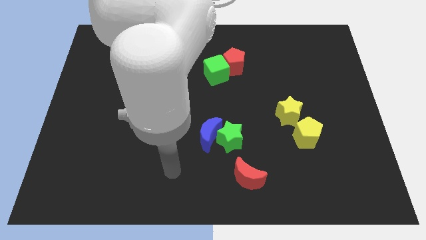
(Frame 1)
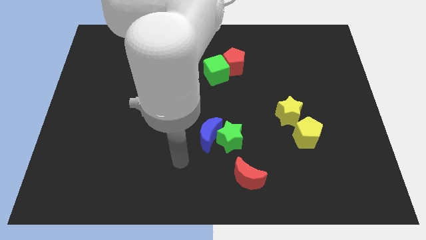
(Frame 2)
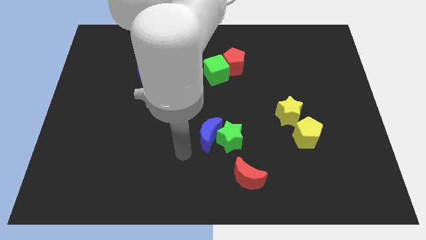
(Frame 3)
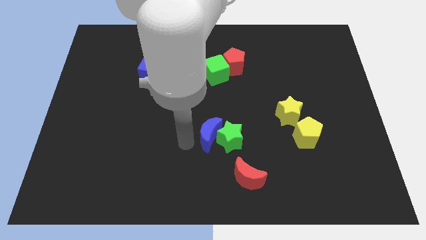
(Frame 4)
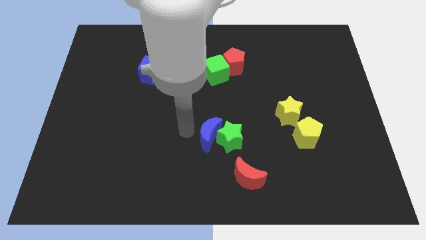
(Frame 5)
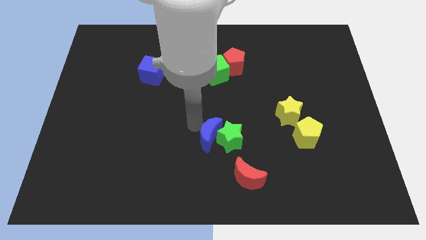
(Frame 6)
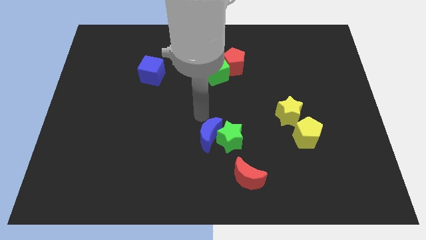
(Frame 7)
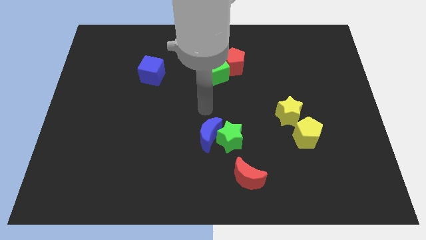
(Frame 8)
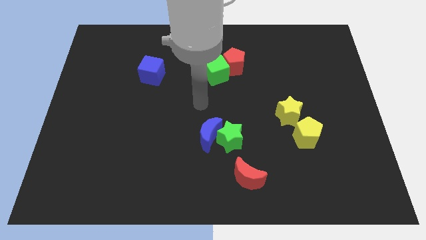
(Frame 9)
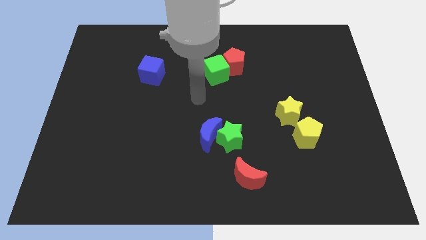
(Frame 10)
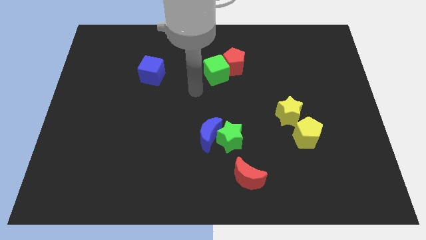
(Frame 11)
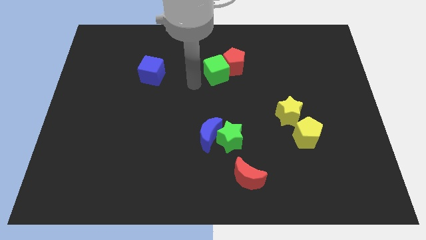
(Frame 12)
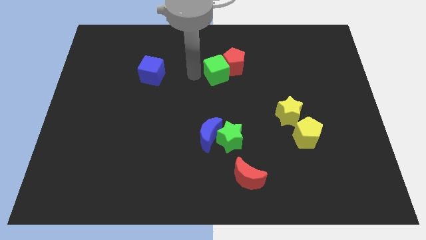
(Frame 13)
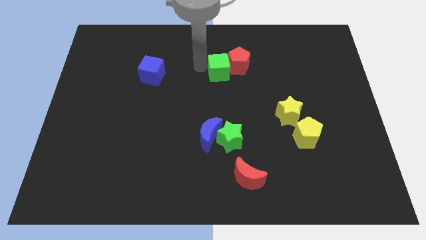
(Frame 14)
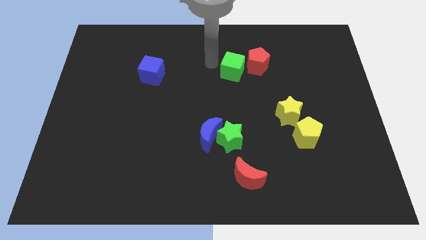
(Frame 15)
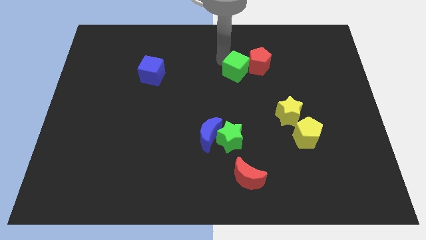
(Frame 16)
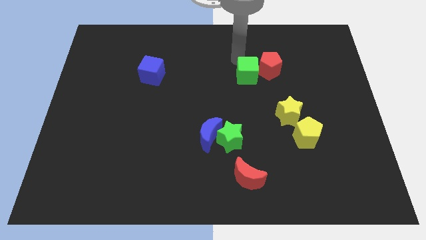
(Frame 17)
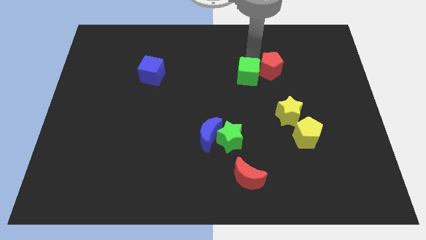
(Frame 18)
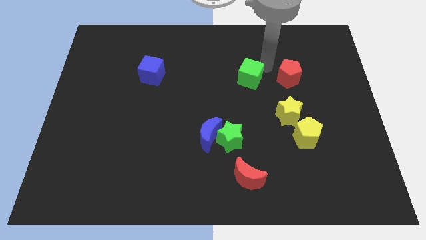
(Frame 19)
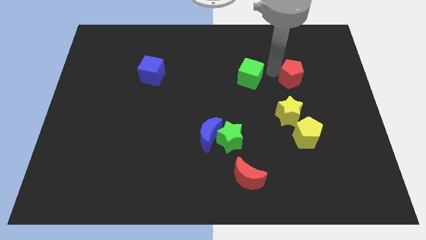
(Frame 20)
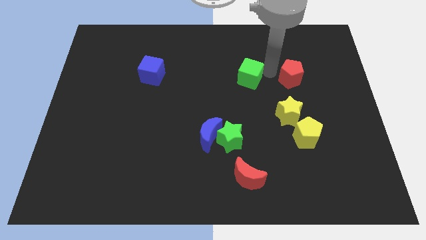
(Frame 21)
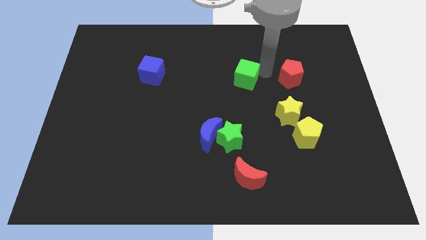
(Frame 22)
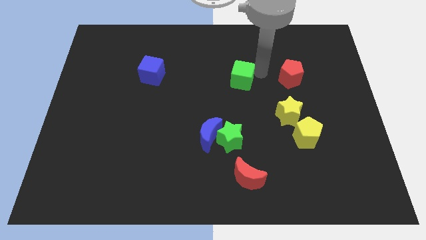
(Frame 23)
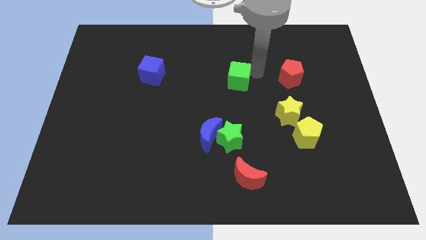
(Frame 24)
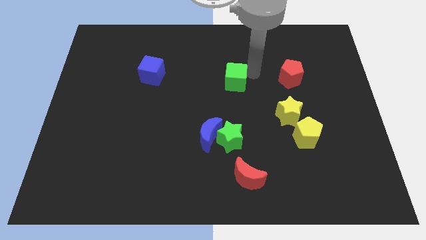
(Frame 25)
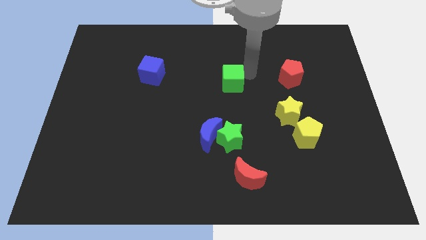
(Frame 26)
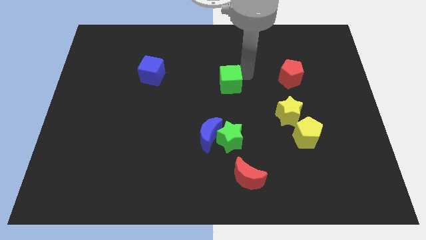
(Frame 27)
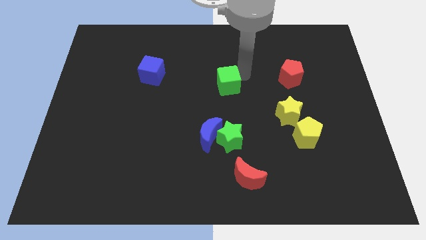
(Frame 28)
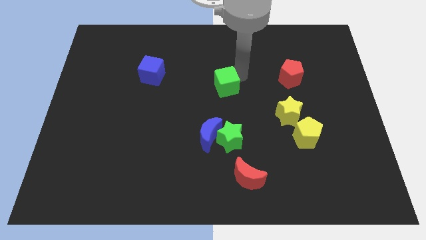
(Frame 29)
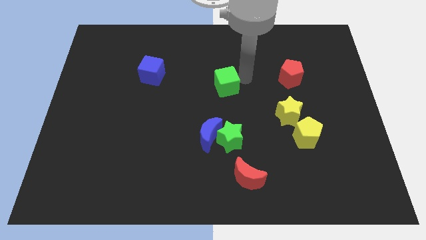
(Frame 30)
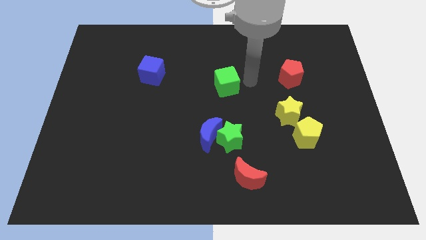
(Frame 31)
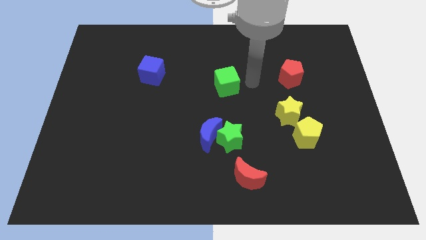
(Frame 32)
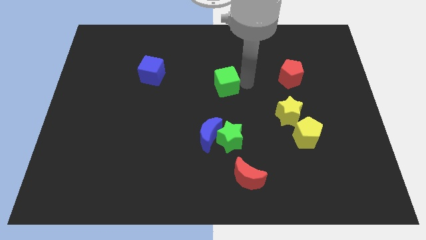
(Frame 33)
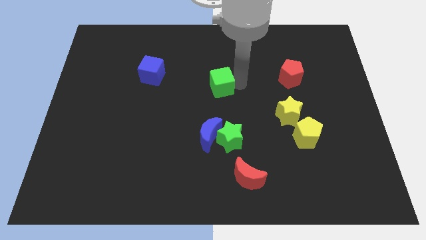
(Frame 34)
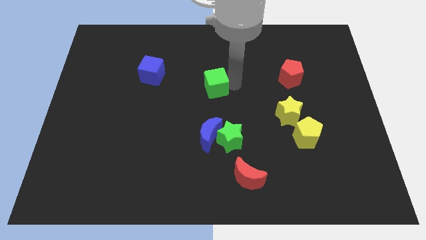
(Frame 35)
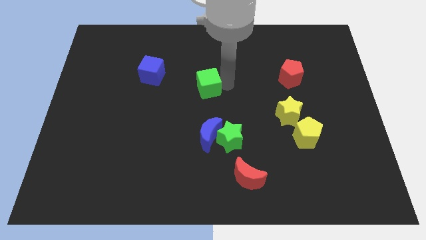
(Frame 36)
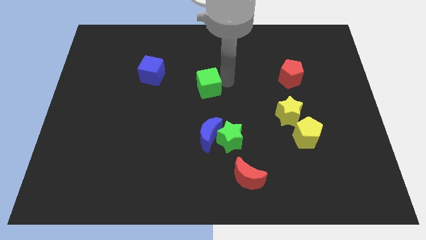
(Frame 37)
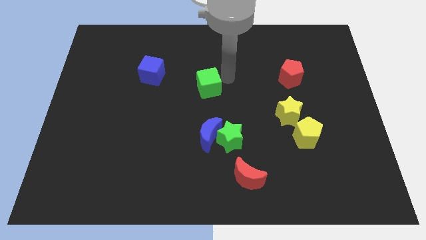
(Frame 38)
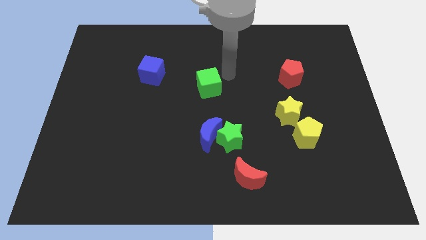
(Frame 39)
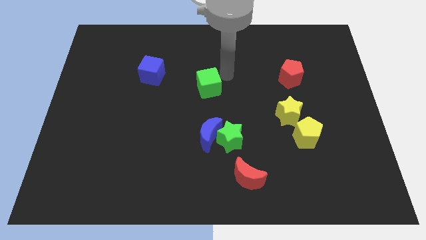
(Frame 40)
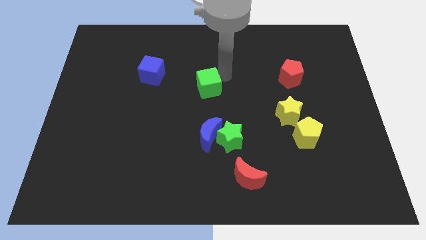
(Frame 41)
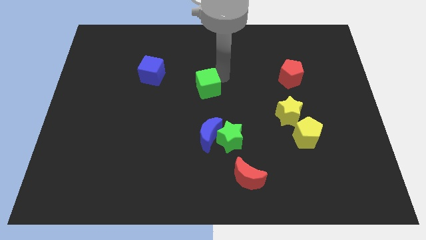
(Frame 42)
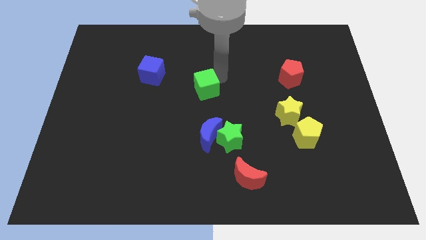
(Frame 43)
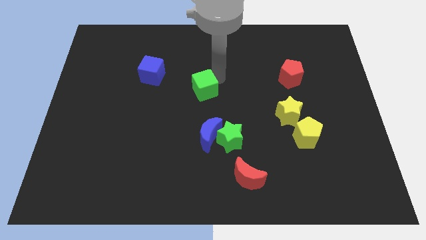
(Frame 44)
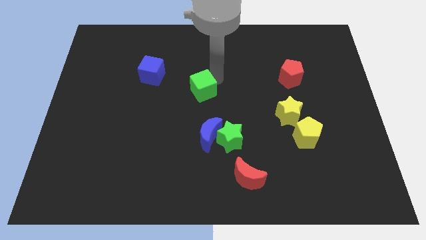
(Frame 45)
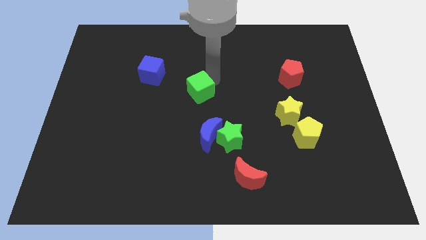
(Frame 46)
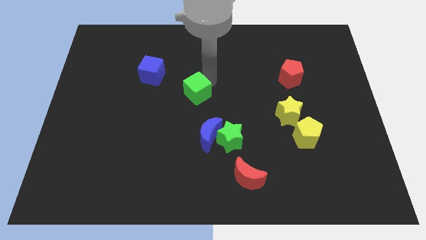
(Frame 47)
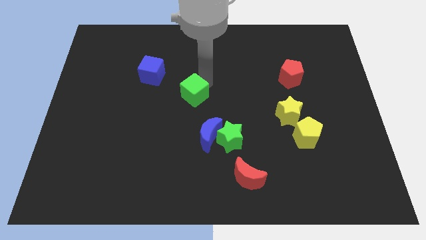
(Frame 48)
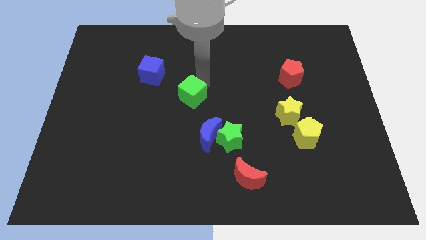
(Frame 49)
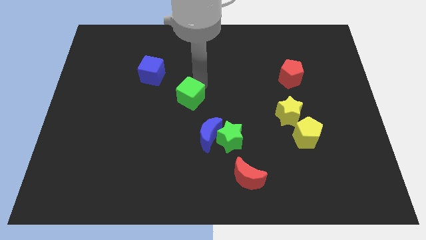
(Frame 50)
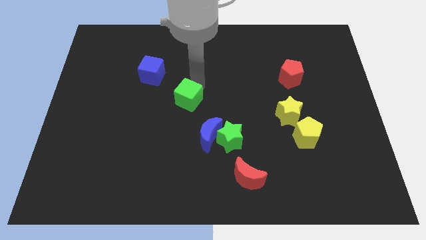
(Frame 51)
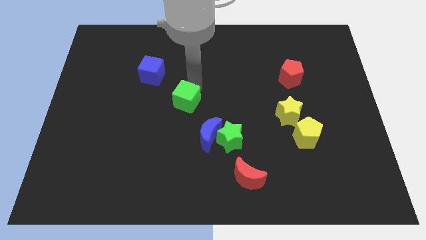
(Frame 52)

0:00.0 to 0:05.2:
slide the green cube to the top left of the blue moon

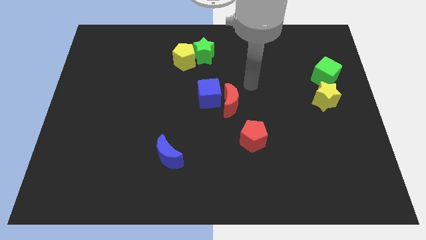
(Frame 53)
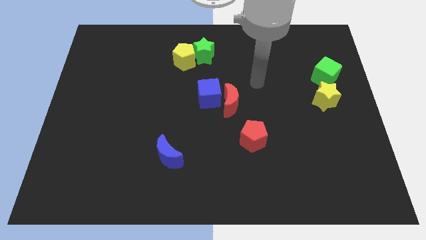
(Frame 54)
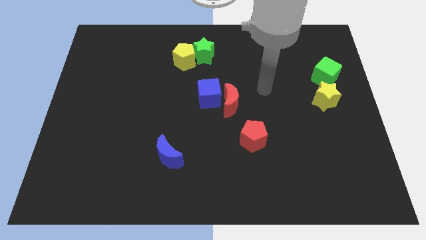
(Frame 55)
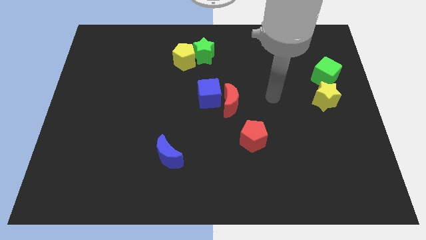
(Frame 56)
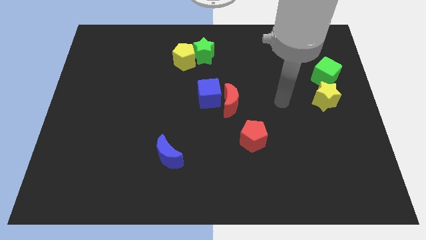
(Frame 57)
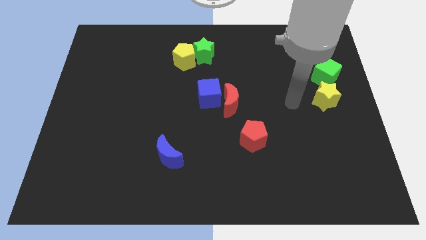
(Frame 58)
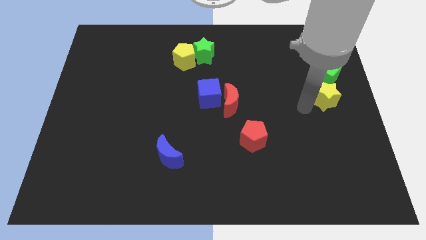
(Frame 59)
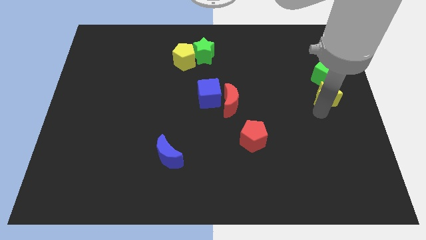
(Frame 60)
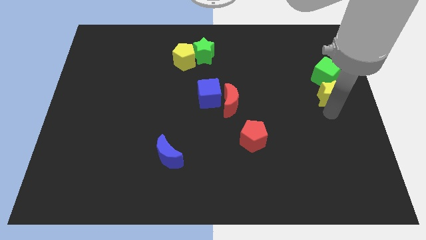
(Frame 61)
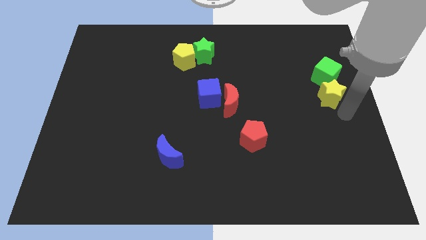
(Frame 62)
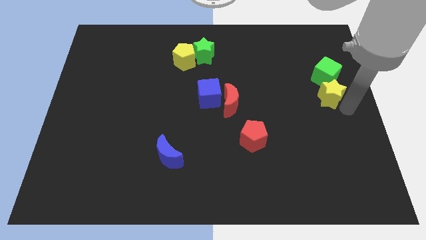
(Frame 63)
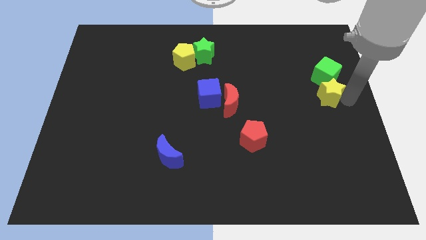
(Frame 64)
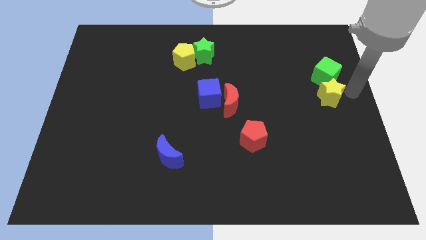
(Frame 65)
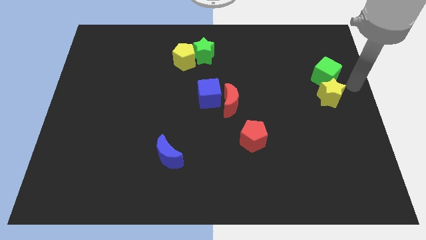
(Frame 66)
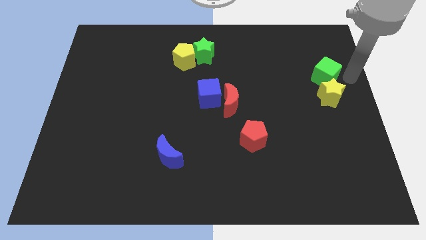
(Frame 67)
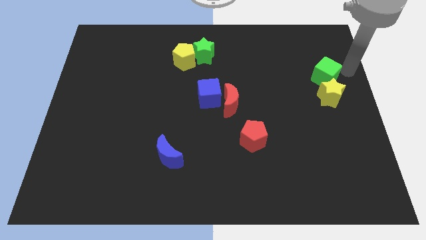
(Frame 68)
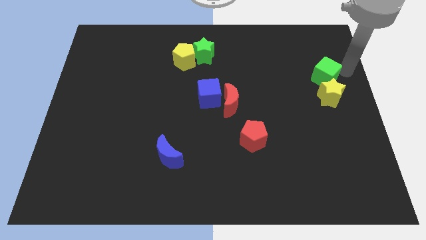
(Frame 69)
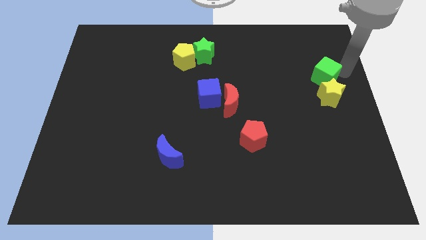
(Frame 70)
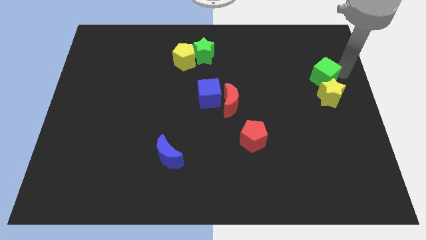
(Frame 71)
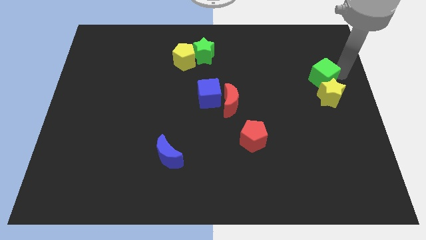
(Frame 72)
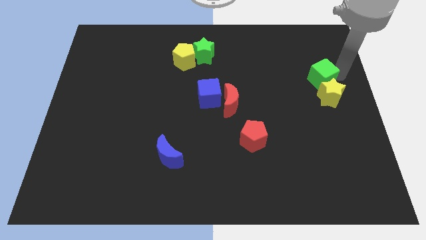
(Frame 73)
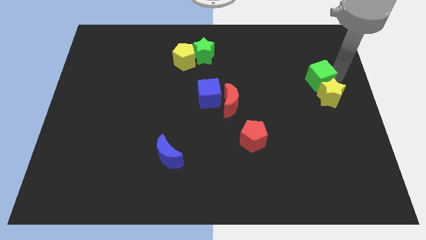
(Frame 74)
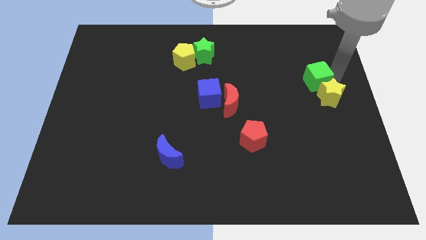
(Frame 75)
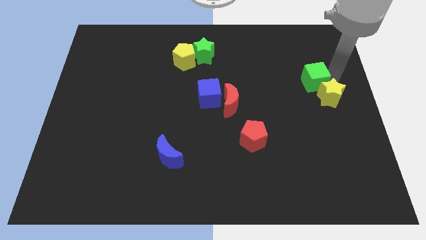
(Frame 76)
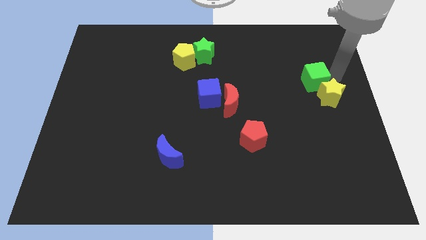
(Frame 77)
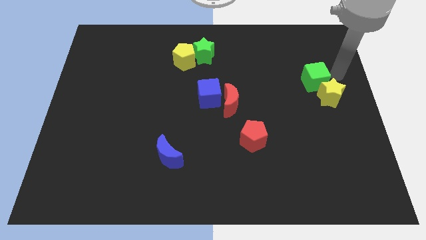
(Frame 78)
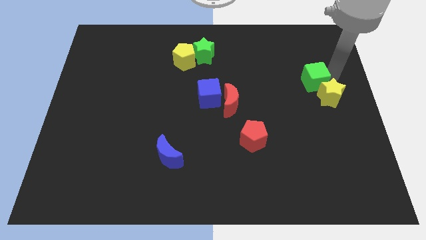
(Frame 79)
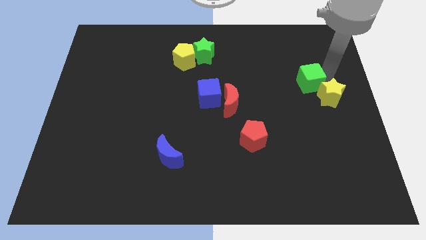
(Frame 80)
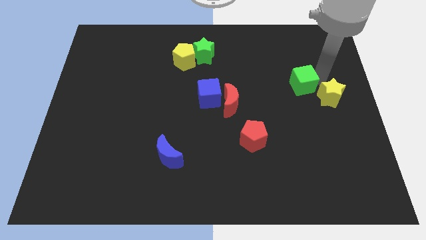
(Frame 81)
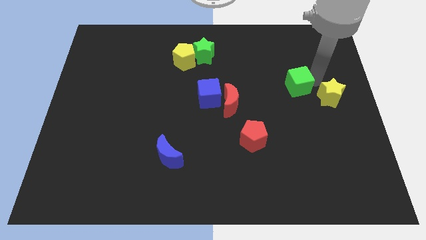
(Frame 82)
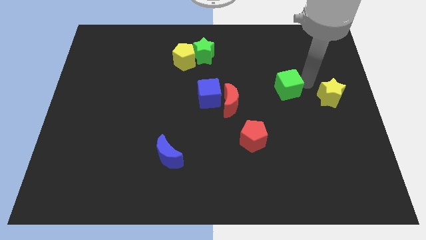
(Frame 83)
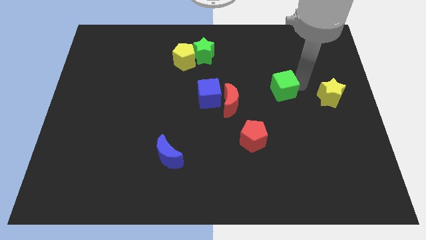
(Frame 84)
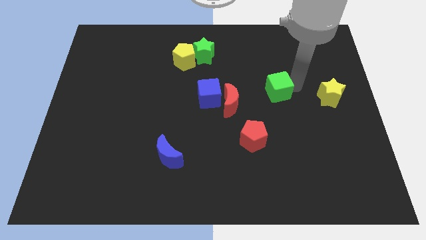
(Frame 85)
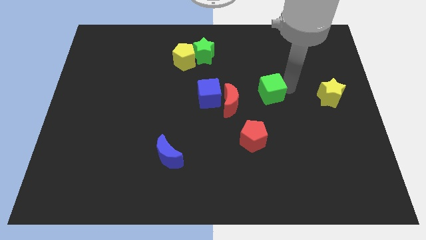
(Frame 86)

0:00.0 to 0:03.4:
push the green cube to the right of the blue cube
